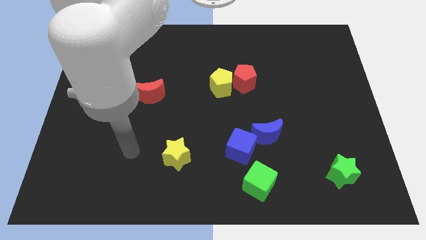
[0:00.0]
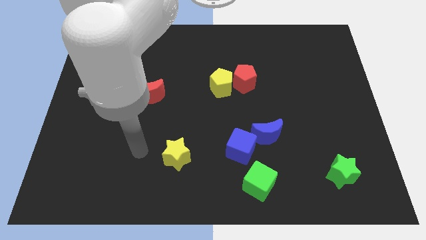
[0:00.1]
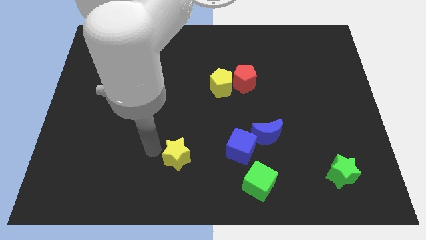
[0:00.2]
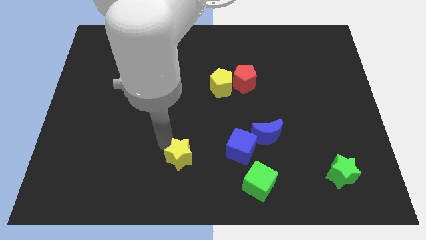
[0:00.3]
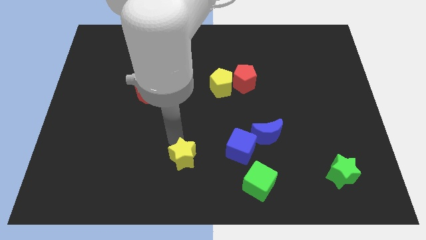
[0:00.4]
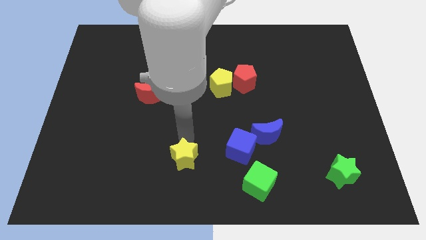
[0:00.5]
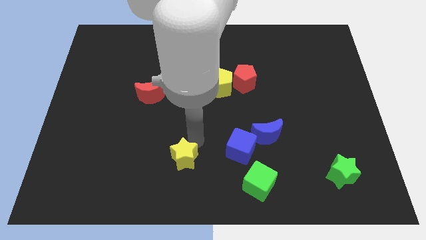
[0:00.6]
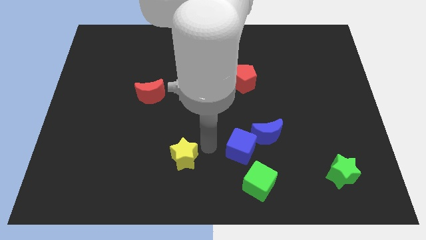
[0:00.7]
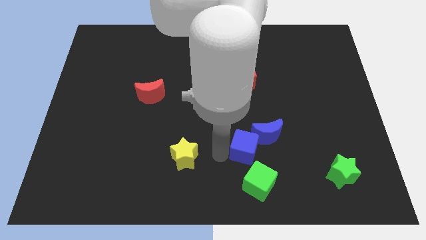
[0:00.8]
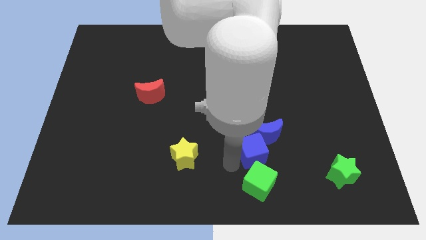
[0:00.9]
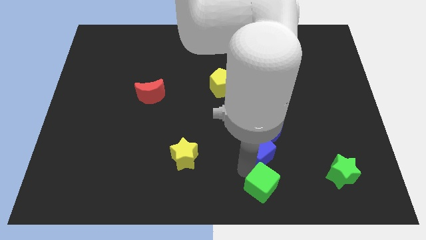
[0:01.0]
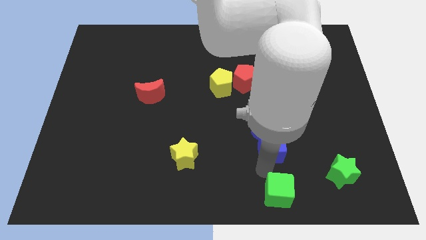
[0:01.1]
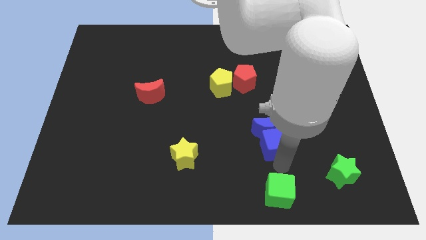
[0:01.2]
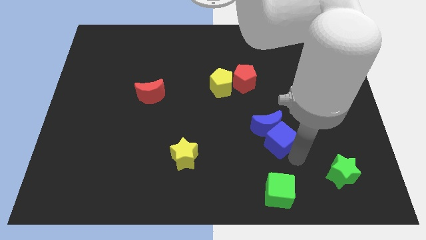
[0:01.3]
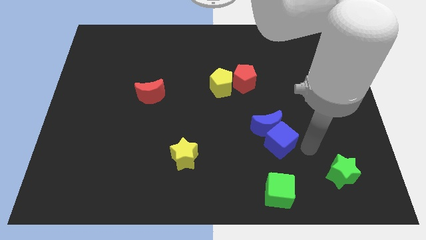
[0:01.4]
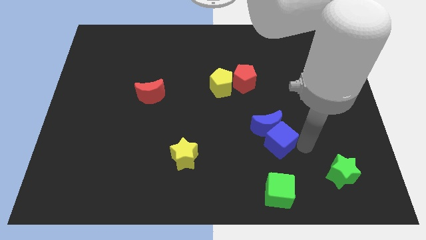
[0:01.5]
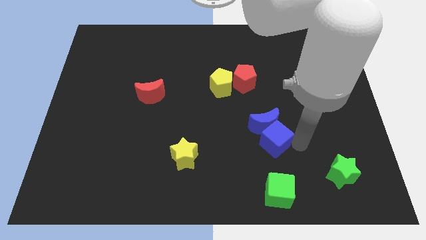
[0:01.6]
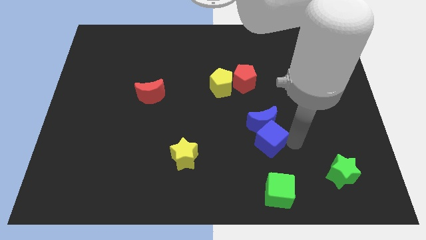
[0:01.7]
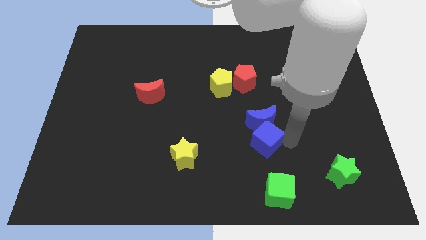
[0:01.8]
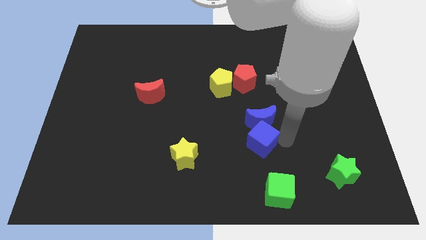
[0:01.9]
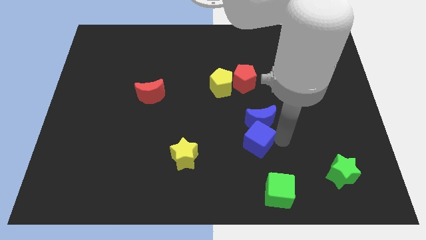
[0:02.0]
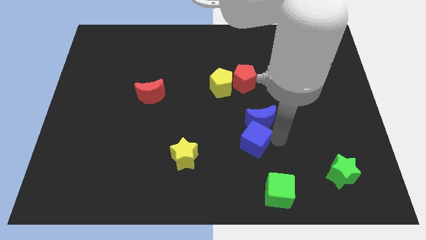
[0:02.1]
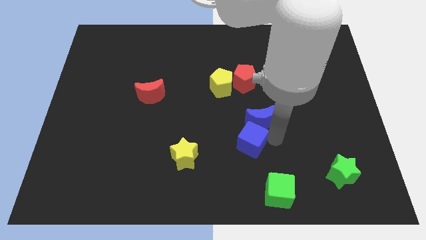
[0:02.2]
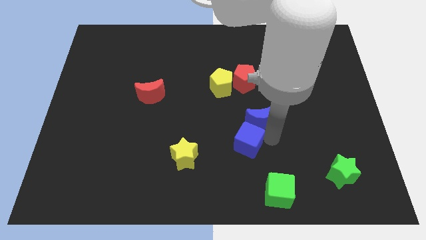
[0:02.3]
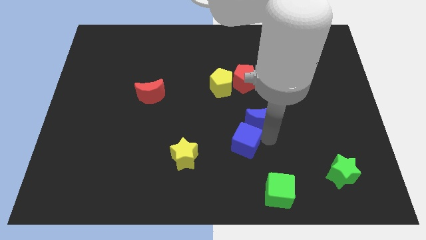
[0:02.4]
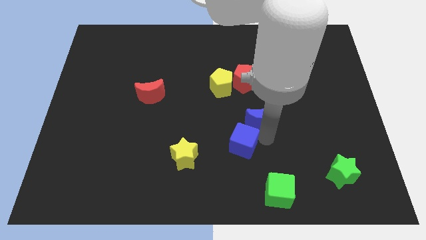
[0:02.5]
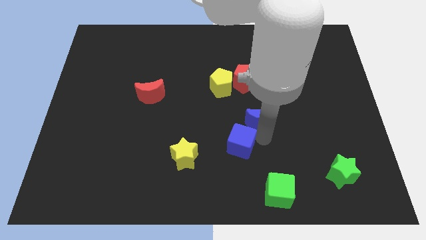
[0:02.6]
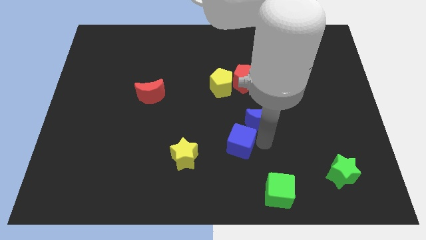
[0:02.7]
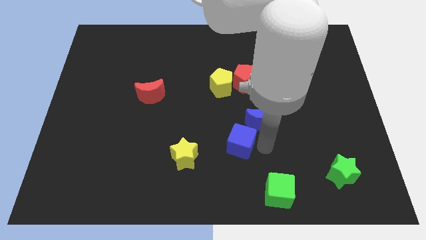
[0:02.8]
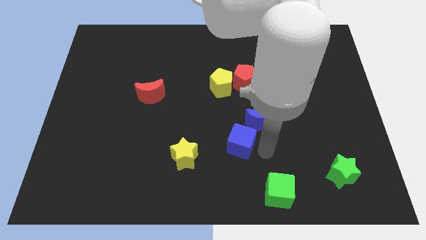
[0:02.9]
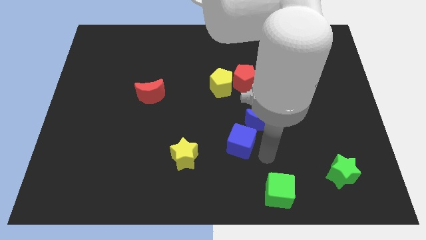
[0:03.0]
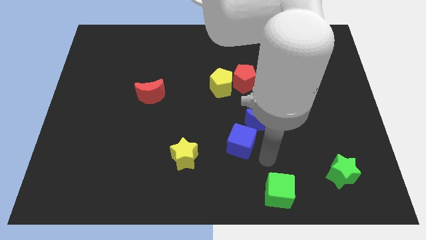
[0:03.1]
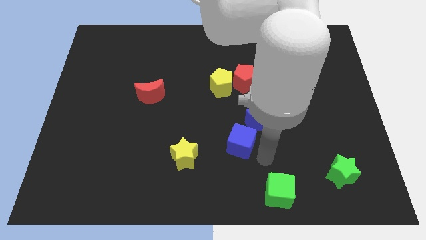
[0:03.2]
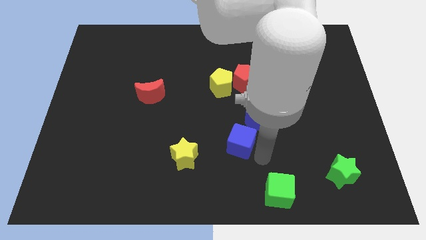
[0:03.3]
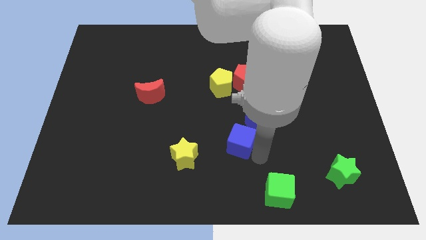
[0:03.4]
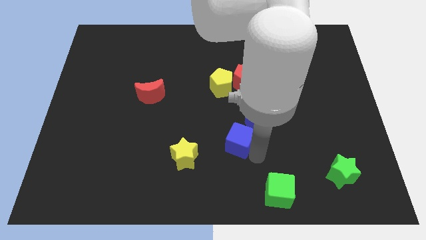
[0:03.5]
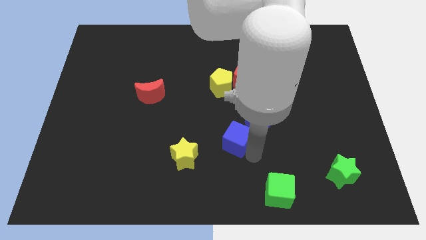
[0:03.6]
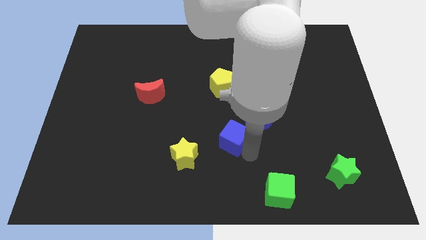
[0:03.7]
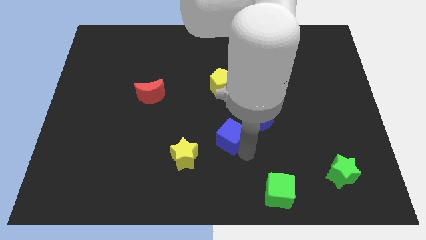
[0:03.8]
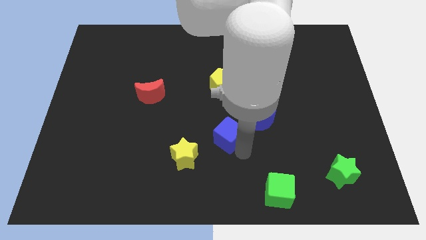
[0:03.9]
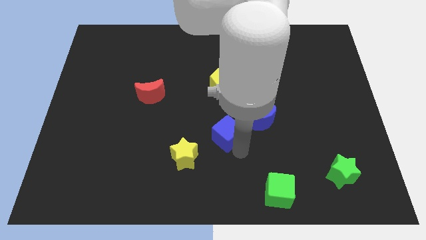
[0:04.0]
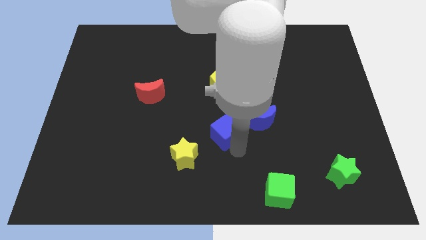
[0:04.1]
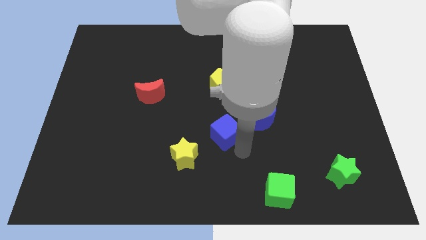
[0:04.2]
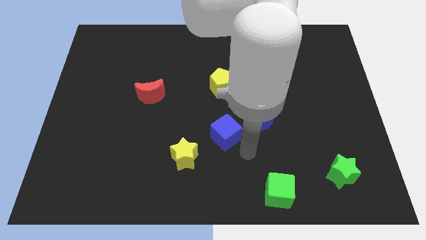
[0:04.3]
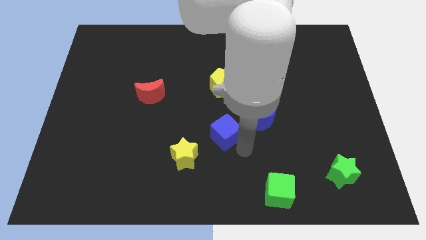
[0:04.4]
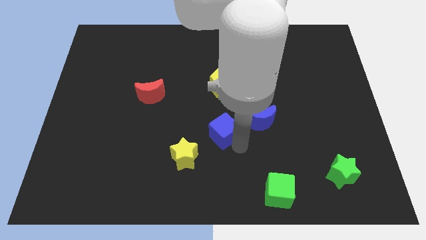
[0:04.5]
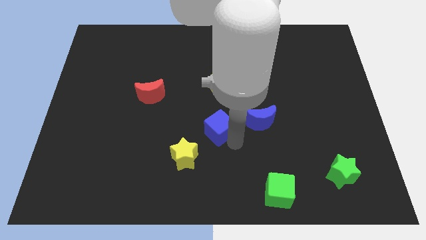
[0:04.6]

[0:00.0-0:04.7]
push the blue cube a bit upwards and left

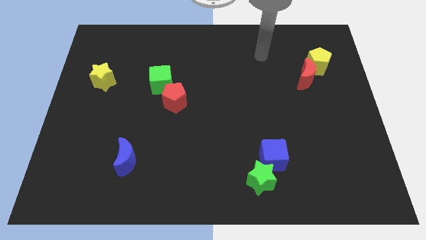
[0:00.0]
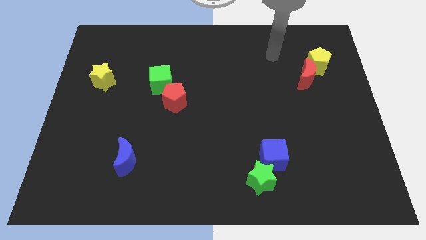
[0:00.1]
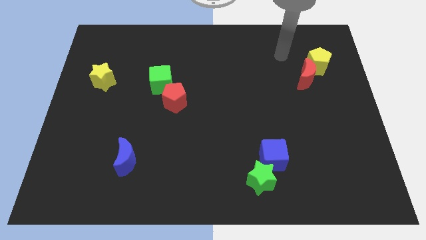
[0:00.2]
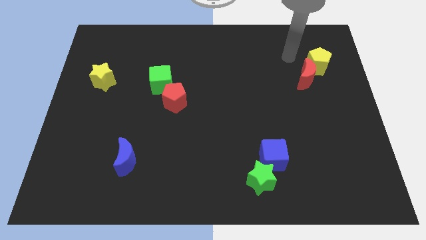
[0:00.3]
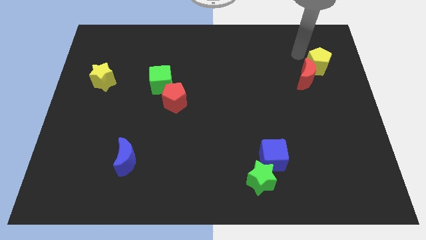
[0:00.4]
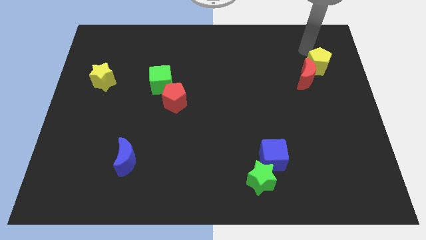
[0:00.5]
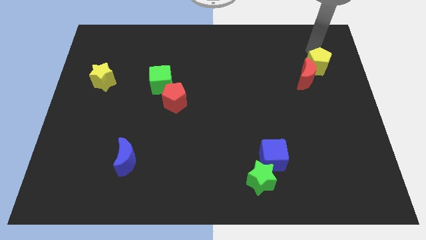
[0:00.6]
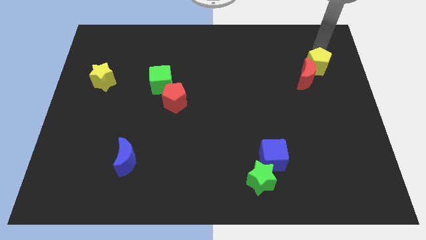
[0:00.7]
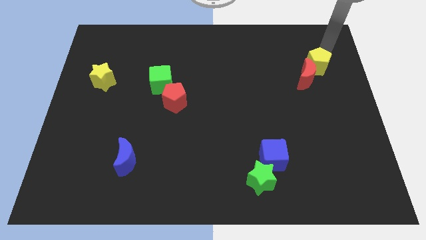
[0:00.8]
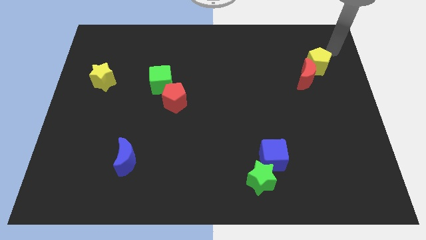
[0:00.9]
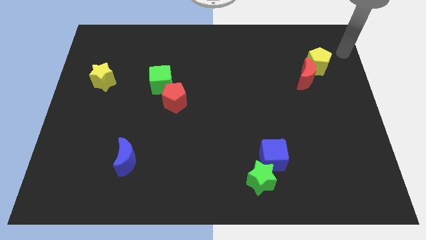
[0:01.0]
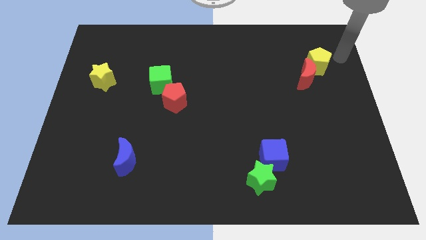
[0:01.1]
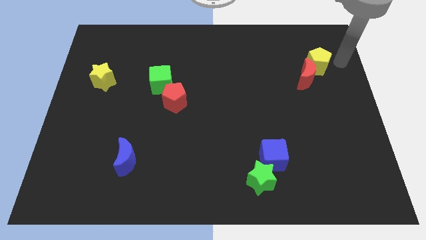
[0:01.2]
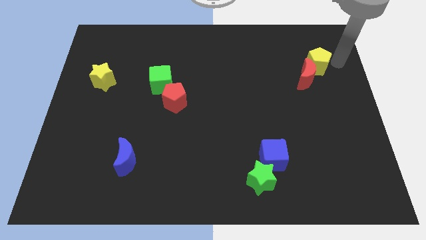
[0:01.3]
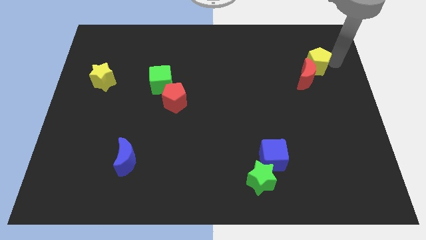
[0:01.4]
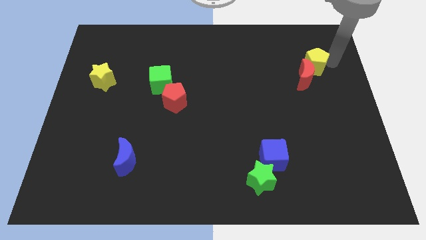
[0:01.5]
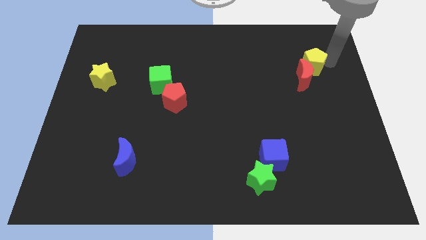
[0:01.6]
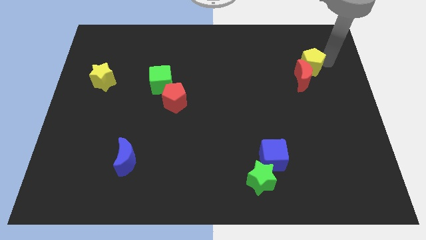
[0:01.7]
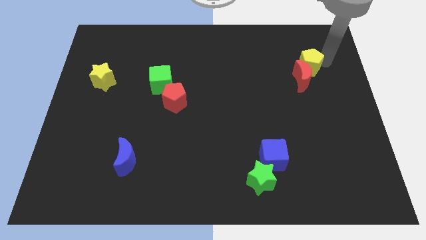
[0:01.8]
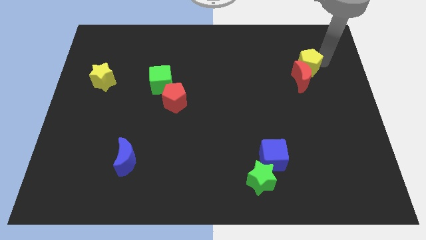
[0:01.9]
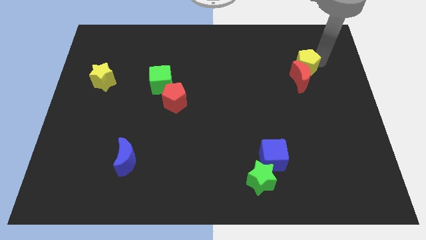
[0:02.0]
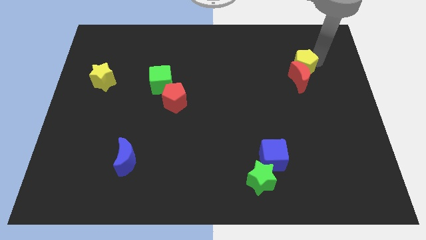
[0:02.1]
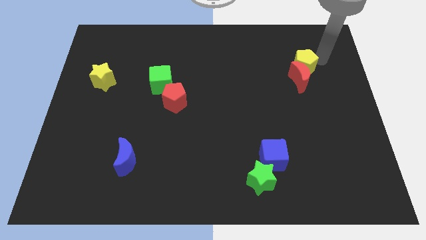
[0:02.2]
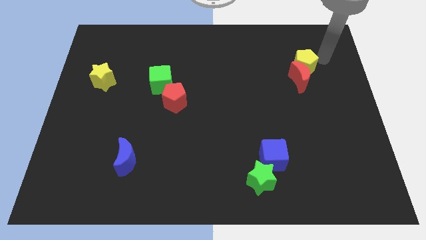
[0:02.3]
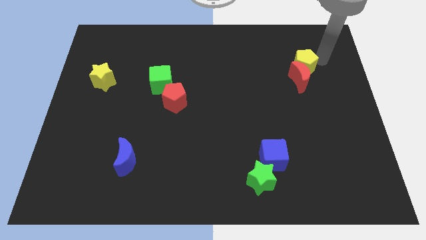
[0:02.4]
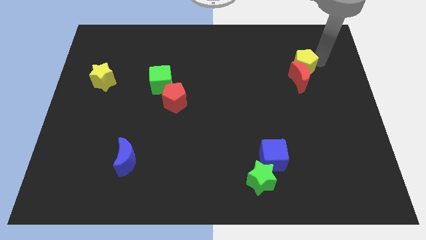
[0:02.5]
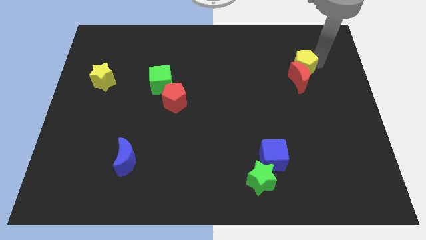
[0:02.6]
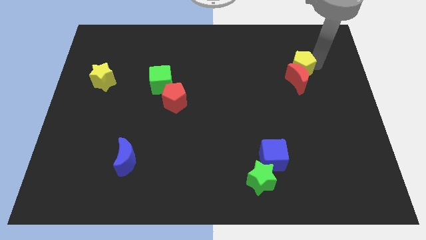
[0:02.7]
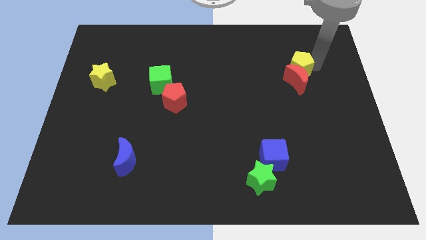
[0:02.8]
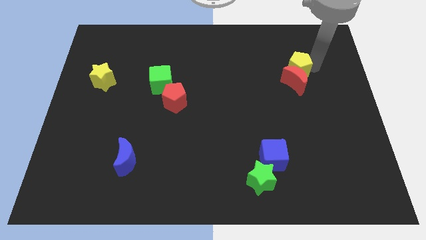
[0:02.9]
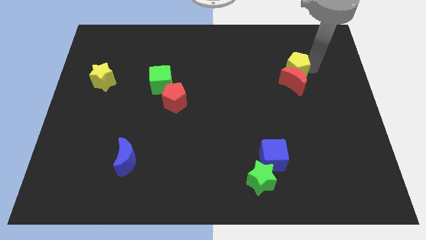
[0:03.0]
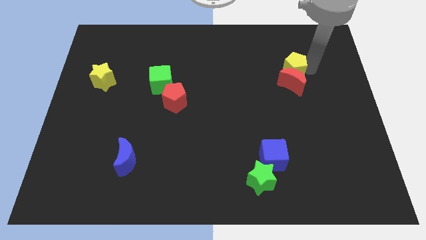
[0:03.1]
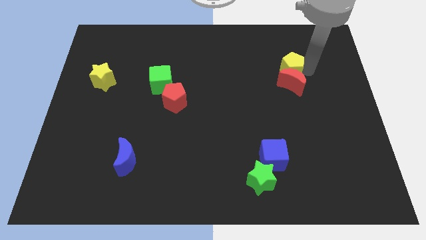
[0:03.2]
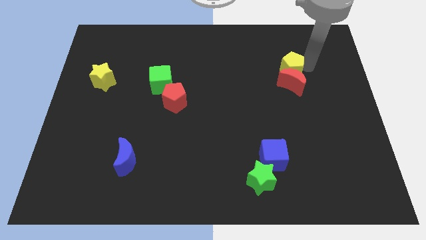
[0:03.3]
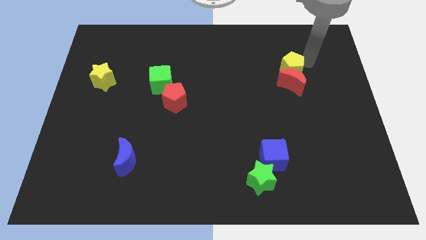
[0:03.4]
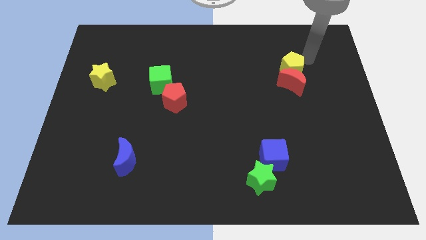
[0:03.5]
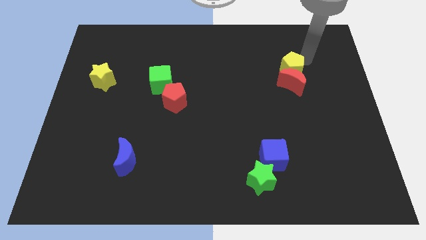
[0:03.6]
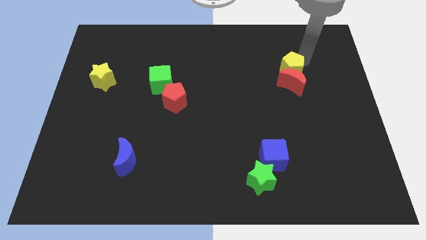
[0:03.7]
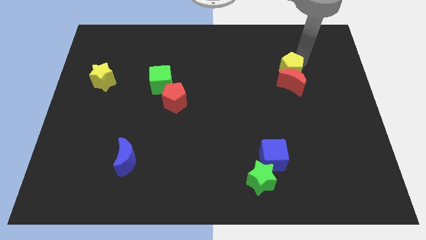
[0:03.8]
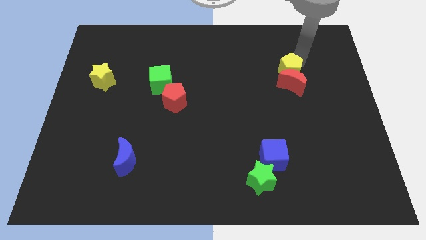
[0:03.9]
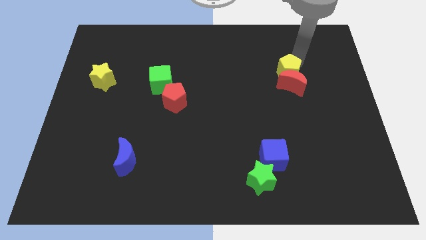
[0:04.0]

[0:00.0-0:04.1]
slide the yellow pentagon a little bit downwards and then to the left
